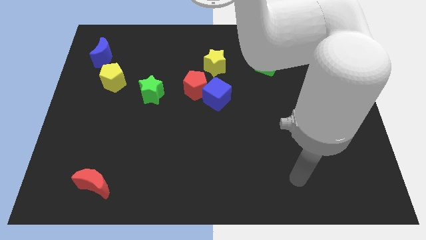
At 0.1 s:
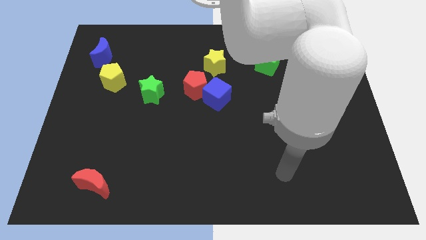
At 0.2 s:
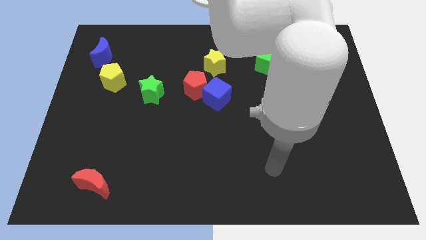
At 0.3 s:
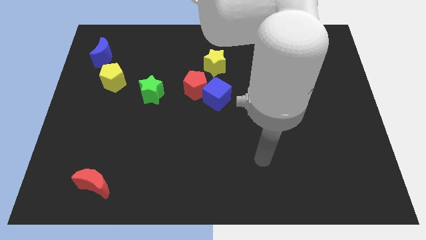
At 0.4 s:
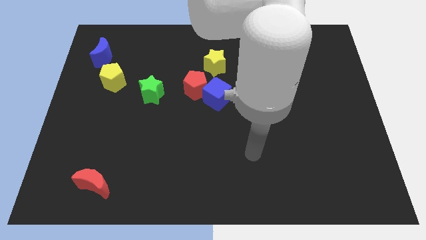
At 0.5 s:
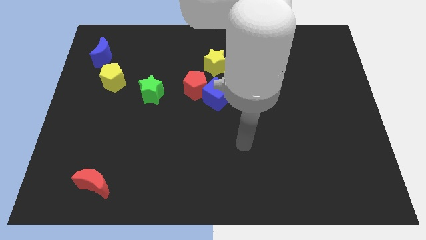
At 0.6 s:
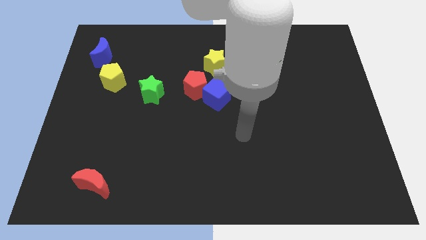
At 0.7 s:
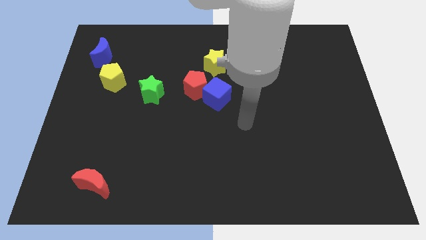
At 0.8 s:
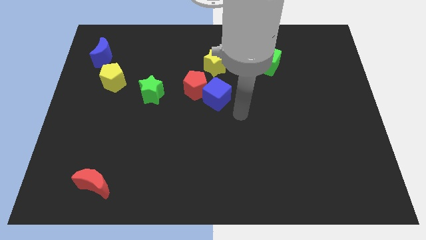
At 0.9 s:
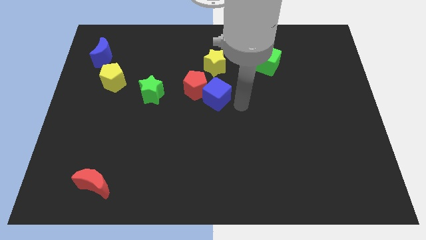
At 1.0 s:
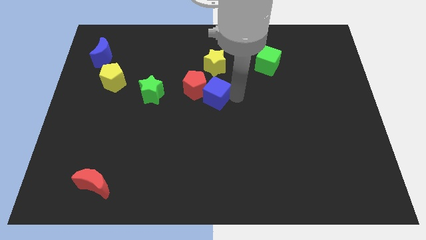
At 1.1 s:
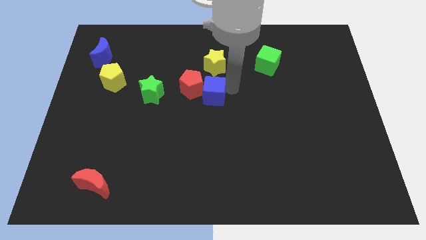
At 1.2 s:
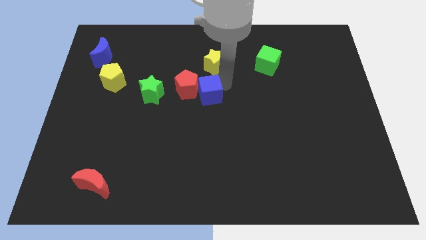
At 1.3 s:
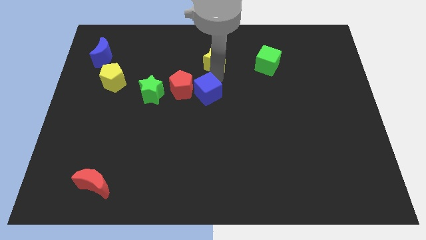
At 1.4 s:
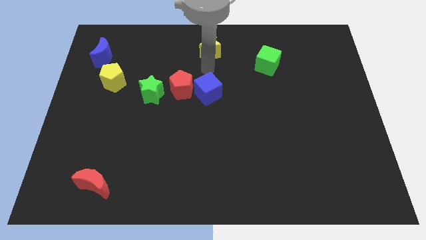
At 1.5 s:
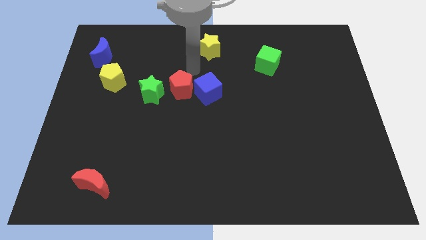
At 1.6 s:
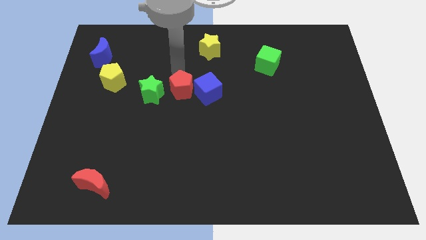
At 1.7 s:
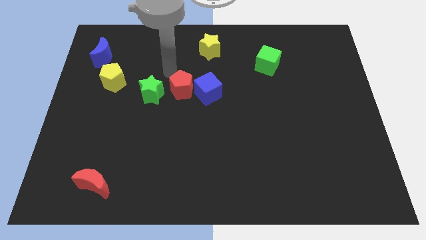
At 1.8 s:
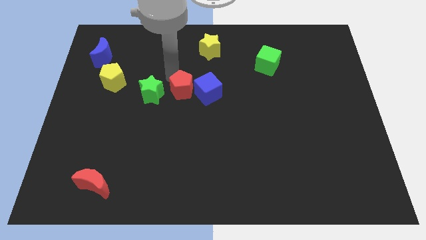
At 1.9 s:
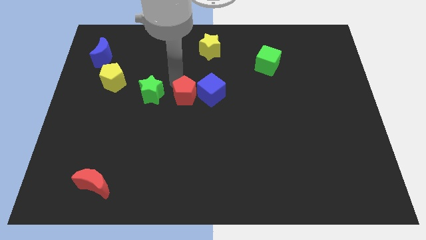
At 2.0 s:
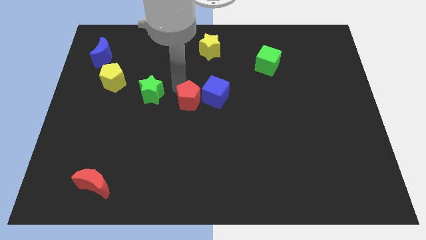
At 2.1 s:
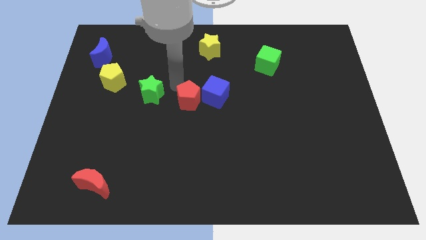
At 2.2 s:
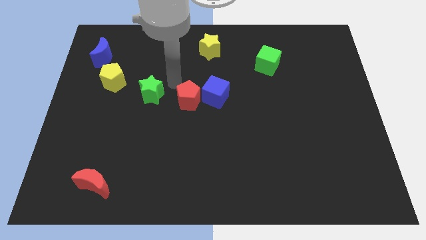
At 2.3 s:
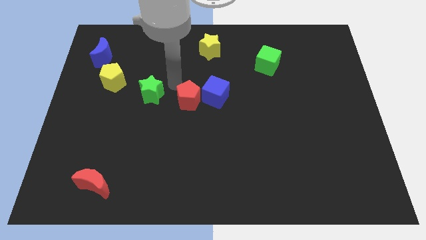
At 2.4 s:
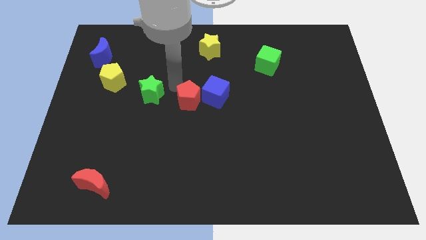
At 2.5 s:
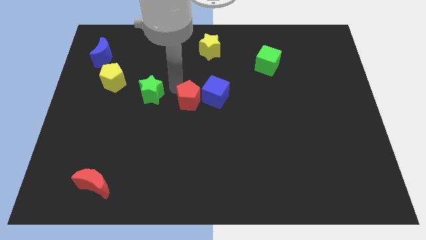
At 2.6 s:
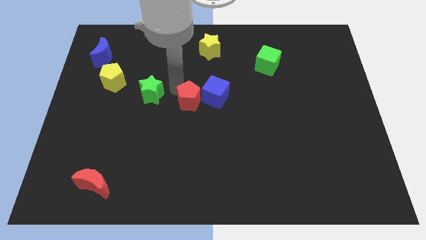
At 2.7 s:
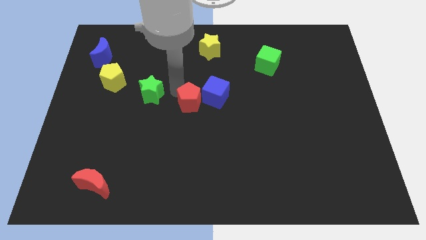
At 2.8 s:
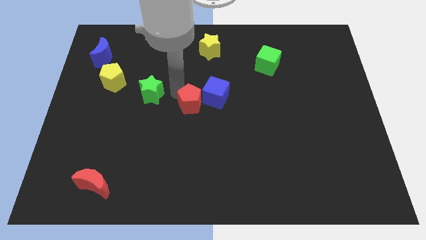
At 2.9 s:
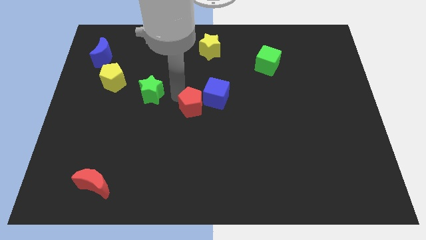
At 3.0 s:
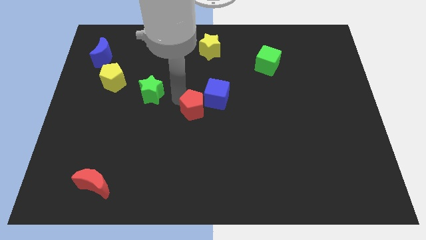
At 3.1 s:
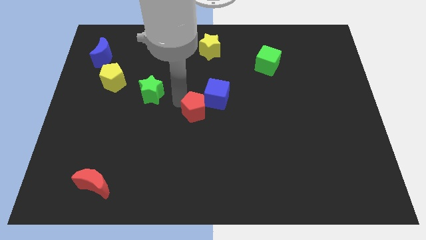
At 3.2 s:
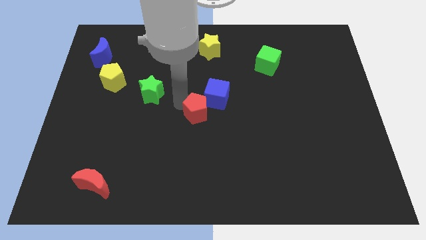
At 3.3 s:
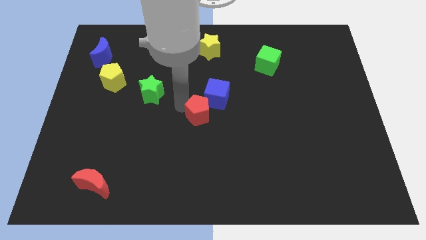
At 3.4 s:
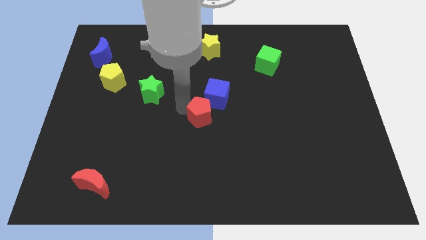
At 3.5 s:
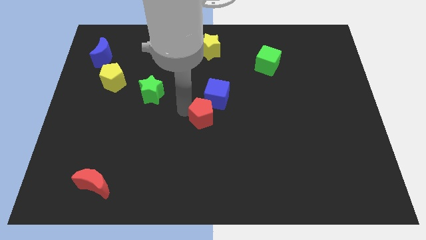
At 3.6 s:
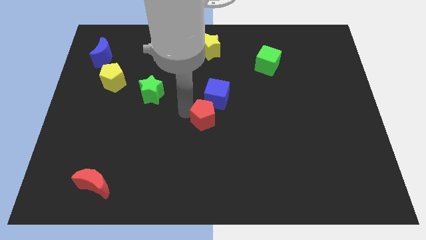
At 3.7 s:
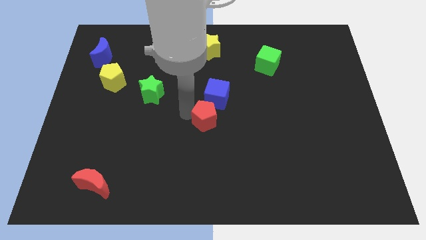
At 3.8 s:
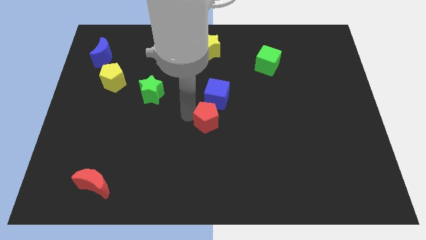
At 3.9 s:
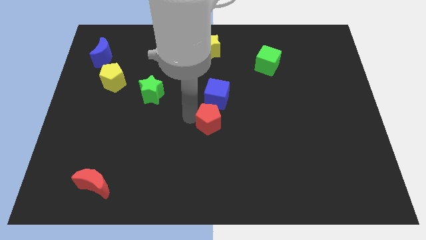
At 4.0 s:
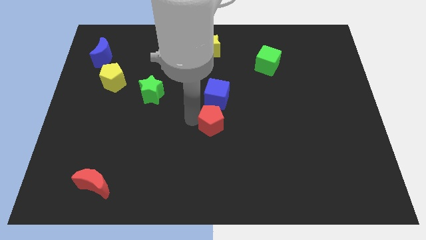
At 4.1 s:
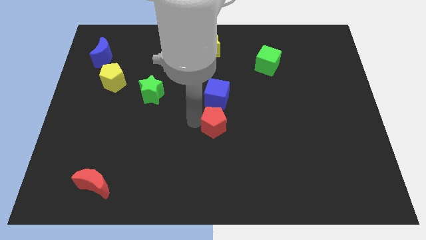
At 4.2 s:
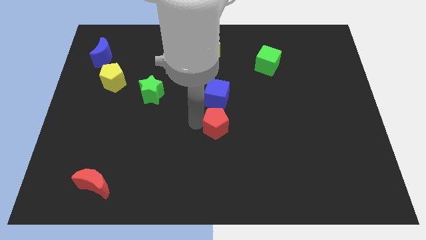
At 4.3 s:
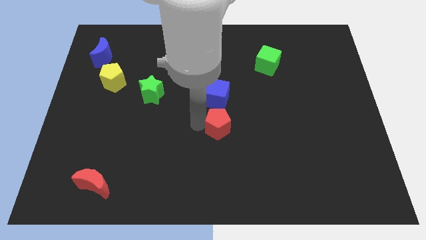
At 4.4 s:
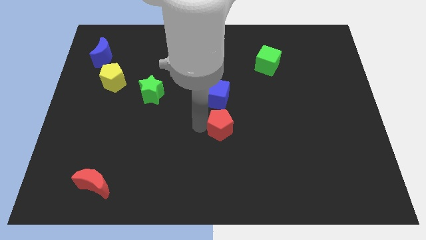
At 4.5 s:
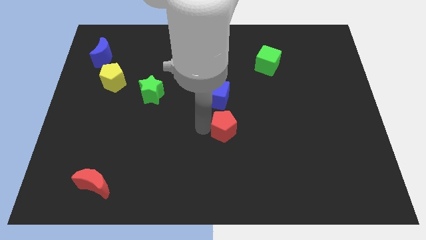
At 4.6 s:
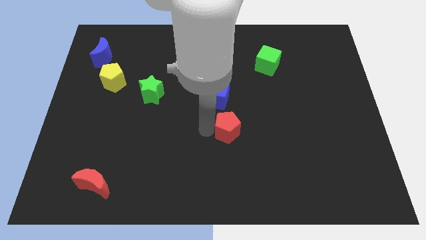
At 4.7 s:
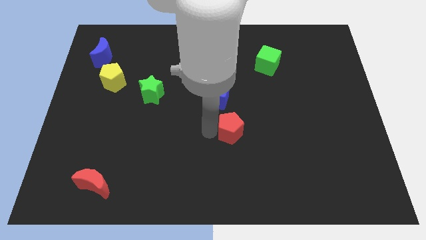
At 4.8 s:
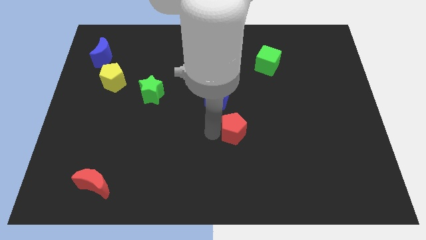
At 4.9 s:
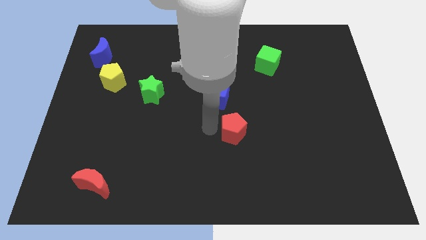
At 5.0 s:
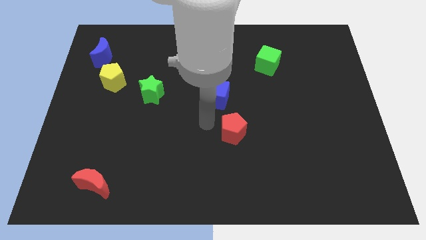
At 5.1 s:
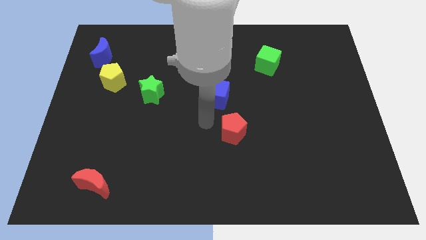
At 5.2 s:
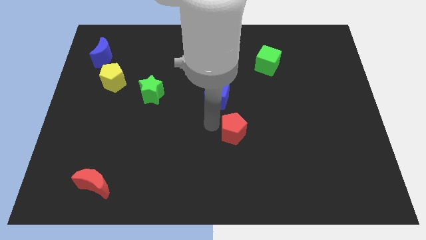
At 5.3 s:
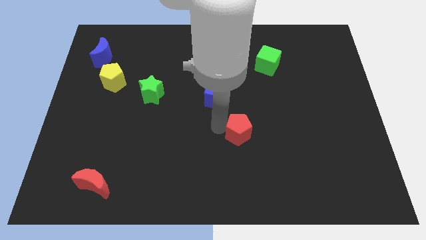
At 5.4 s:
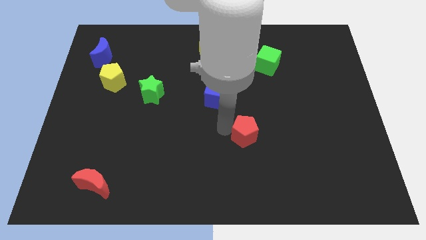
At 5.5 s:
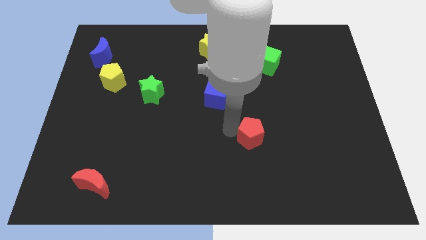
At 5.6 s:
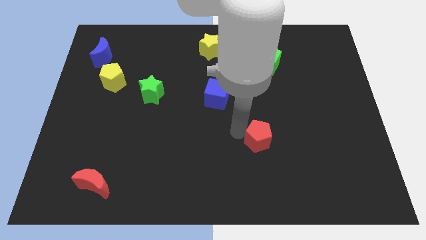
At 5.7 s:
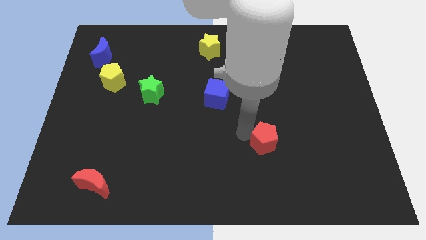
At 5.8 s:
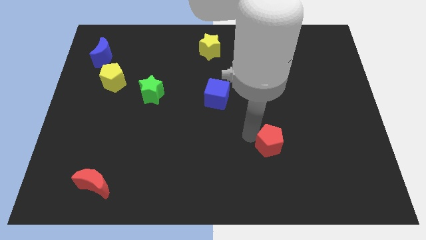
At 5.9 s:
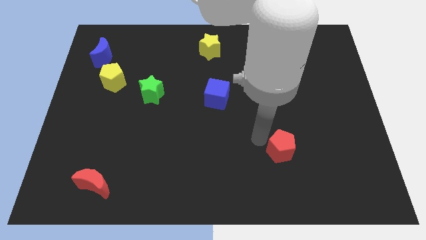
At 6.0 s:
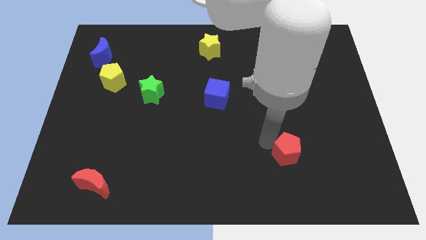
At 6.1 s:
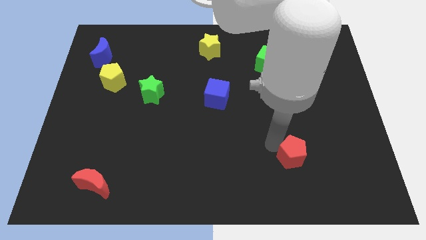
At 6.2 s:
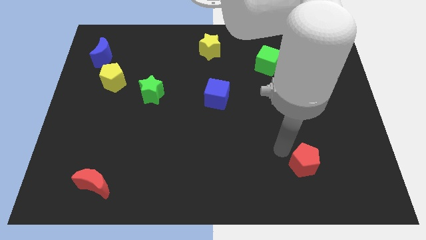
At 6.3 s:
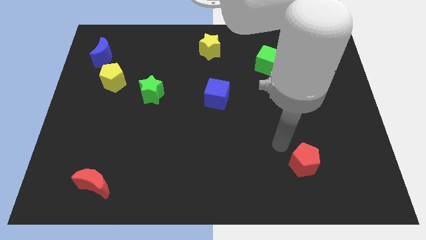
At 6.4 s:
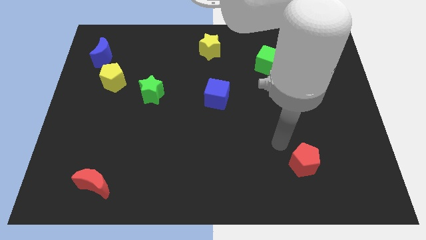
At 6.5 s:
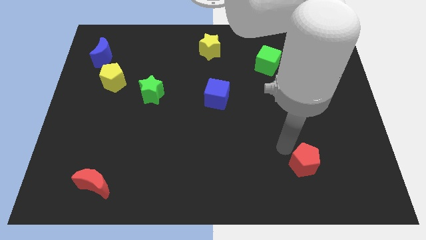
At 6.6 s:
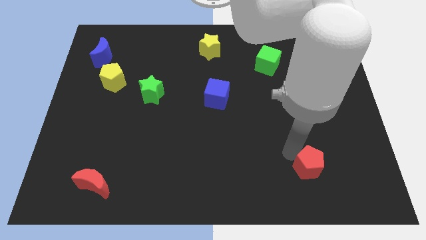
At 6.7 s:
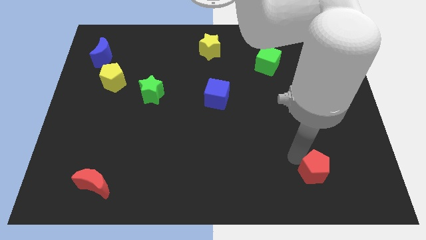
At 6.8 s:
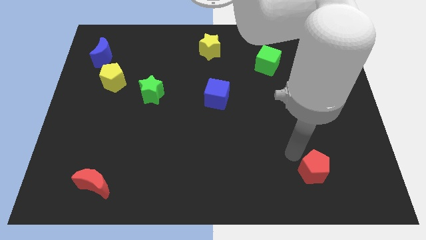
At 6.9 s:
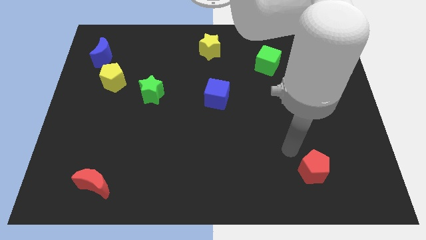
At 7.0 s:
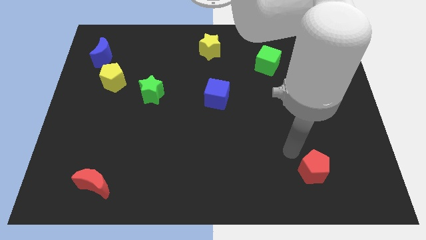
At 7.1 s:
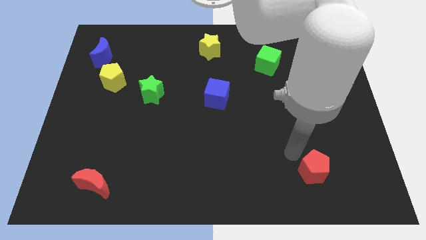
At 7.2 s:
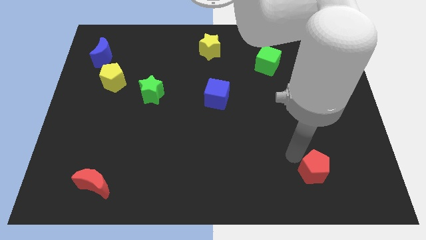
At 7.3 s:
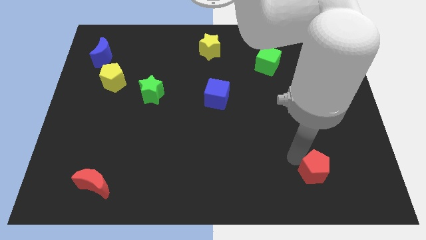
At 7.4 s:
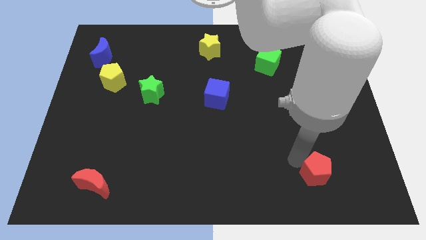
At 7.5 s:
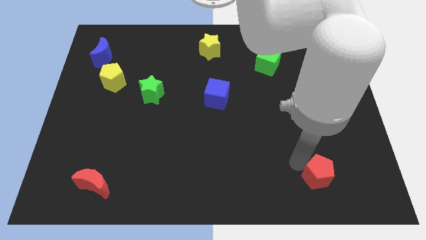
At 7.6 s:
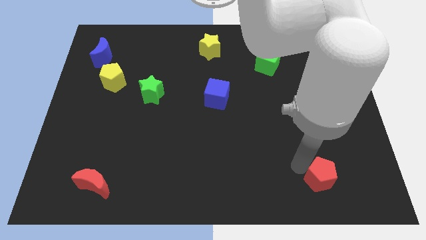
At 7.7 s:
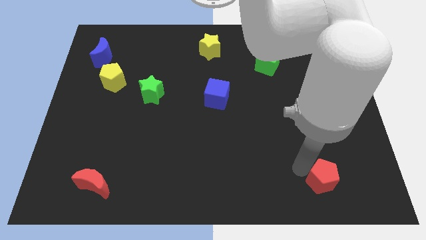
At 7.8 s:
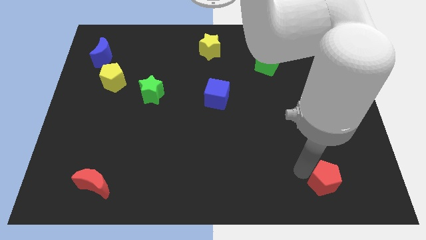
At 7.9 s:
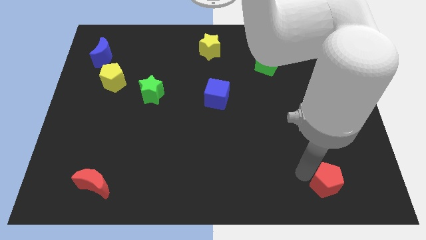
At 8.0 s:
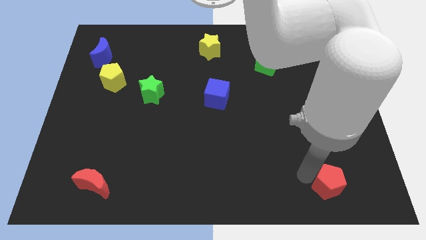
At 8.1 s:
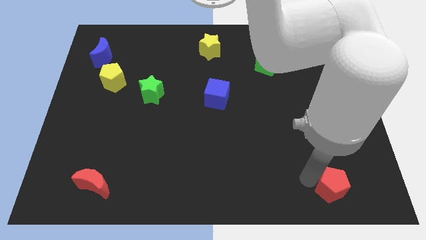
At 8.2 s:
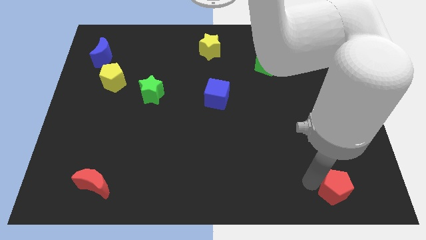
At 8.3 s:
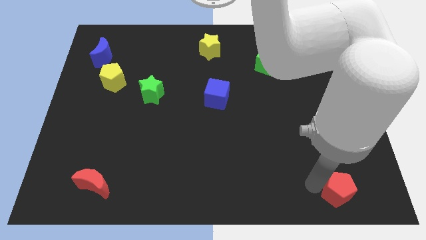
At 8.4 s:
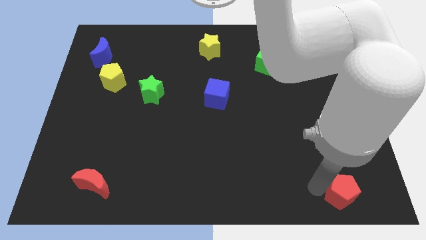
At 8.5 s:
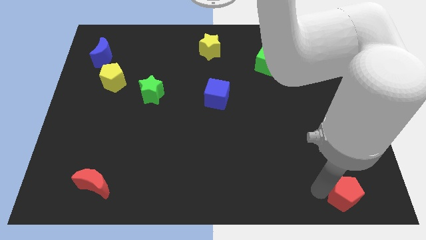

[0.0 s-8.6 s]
push the red pentagon to the bottom right corner
